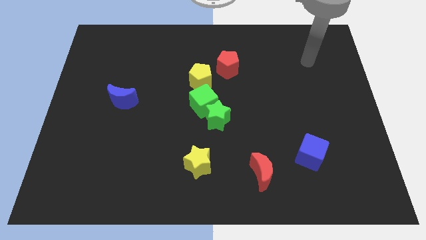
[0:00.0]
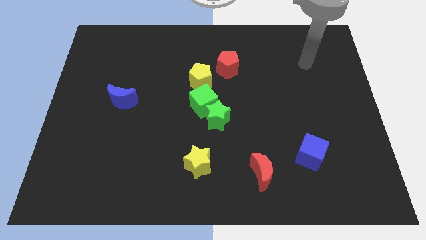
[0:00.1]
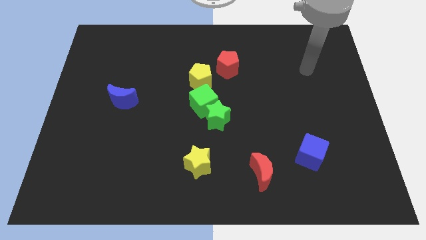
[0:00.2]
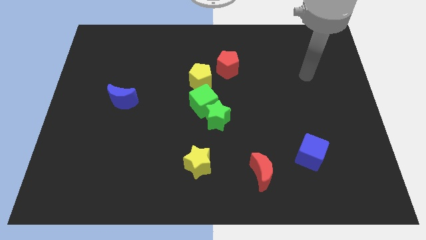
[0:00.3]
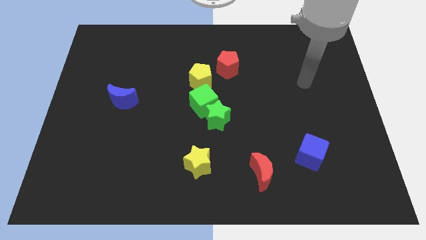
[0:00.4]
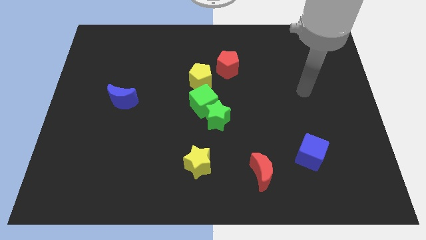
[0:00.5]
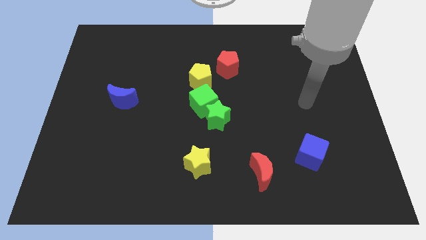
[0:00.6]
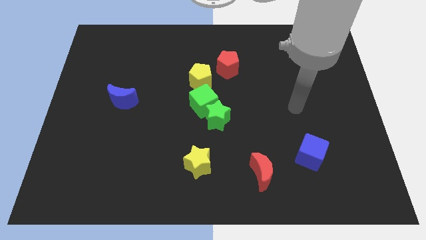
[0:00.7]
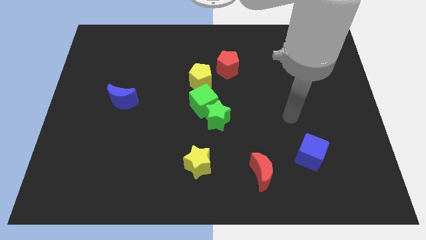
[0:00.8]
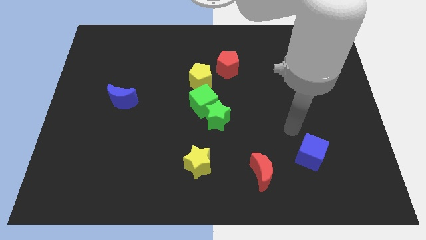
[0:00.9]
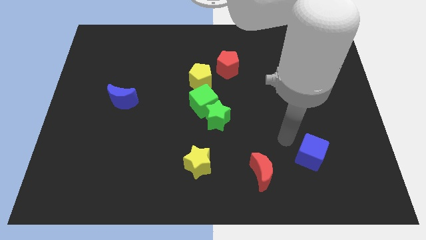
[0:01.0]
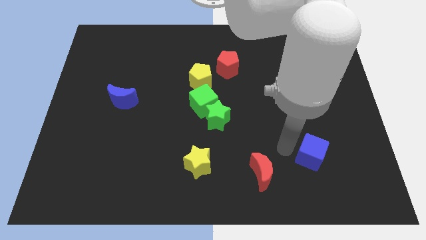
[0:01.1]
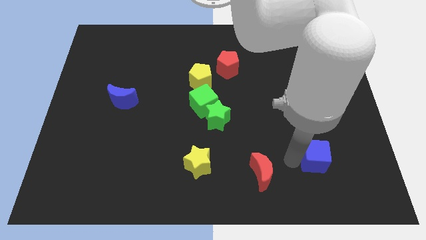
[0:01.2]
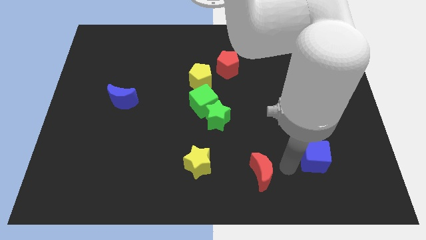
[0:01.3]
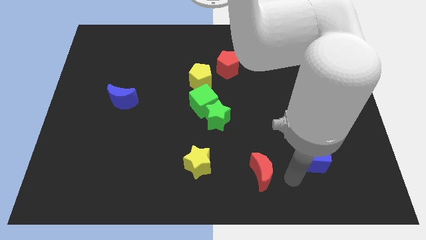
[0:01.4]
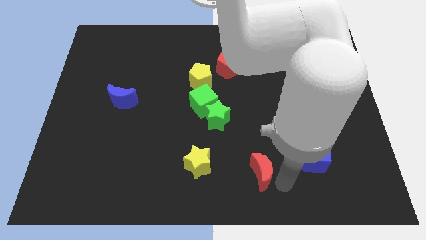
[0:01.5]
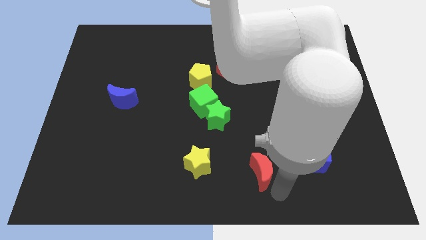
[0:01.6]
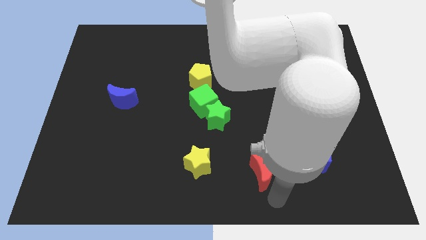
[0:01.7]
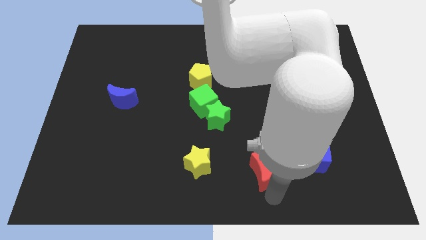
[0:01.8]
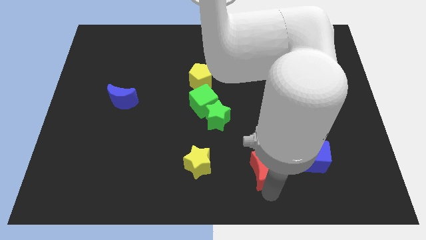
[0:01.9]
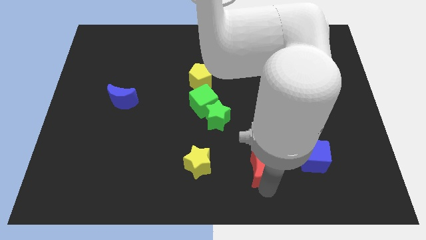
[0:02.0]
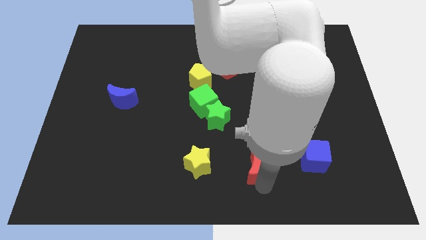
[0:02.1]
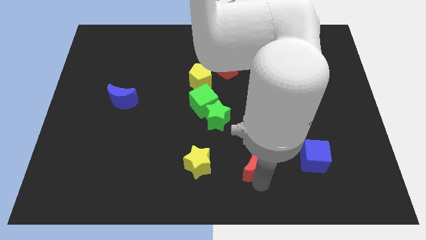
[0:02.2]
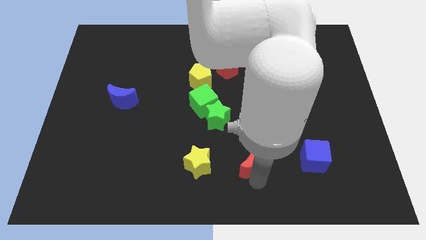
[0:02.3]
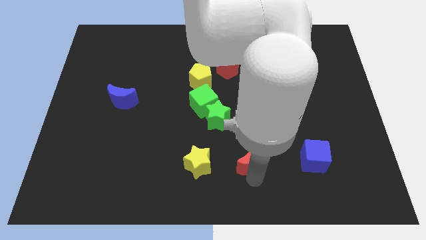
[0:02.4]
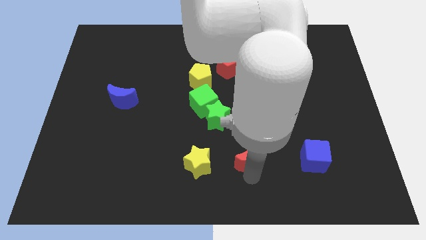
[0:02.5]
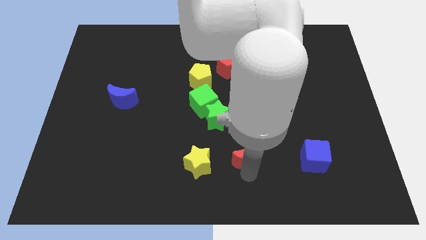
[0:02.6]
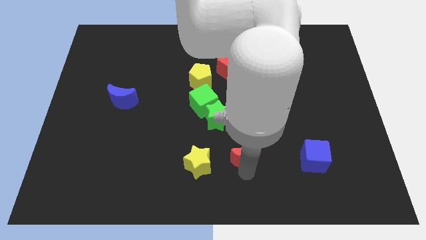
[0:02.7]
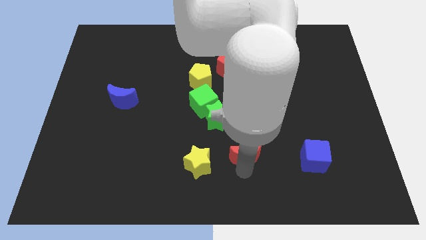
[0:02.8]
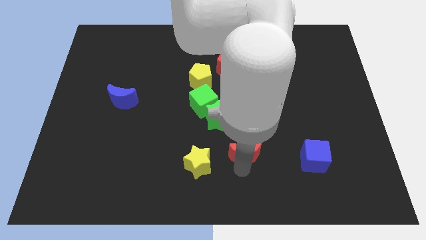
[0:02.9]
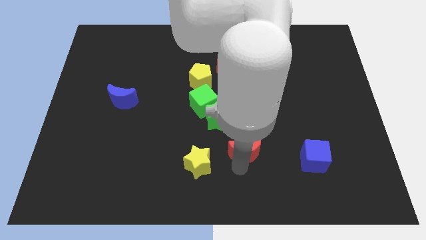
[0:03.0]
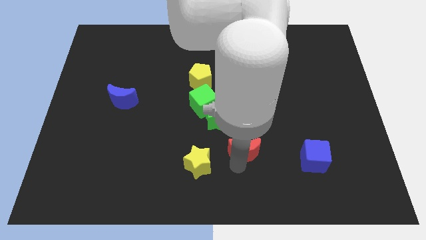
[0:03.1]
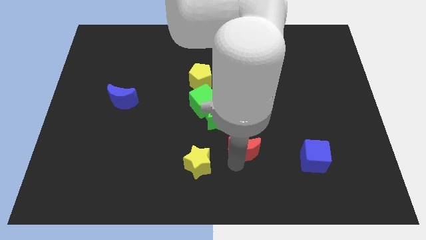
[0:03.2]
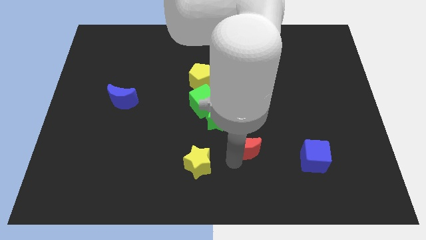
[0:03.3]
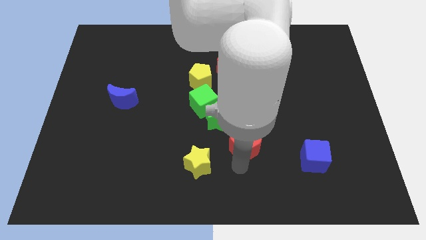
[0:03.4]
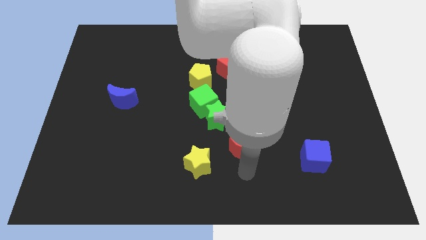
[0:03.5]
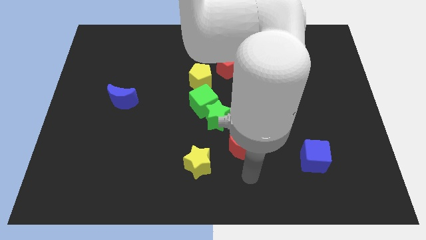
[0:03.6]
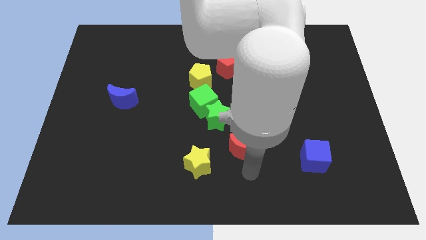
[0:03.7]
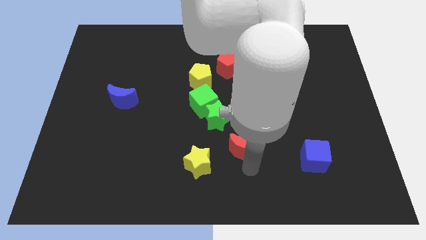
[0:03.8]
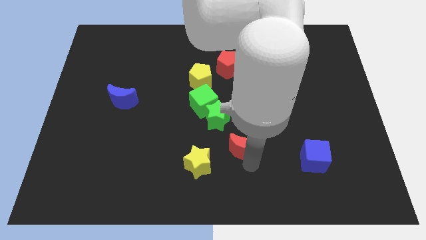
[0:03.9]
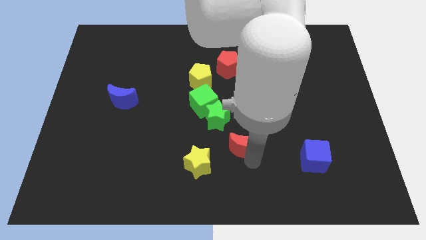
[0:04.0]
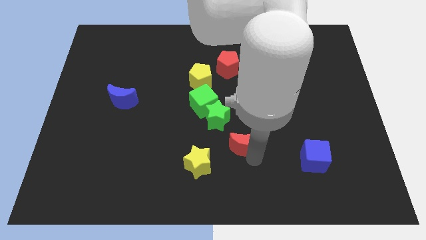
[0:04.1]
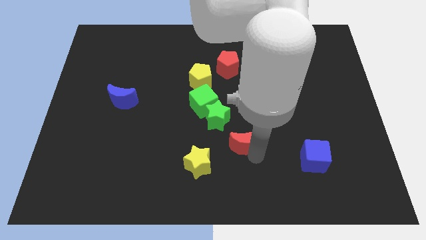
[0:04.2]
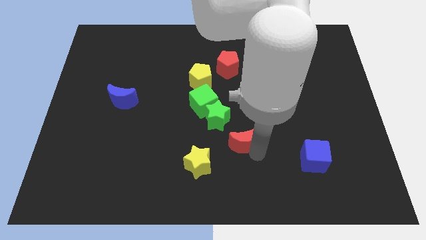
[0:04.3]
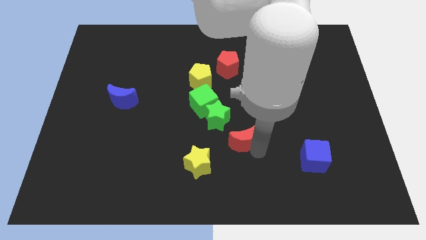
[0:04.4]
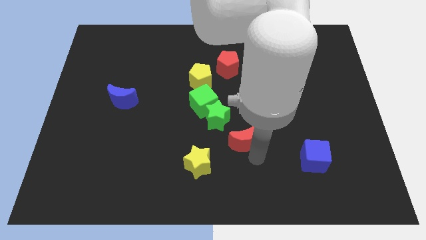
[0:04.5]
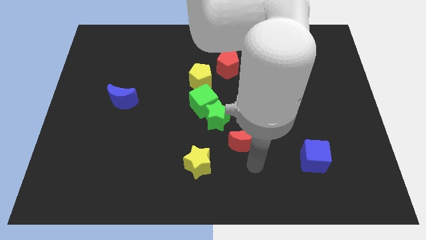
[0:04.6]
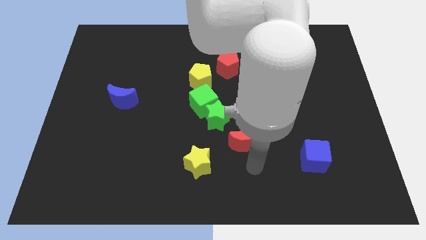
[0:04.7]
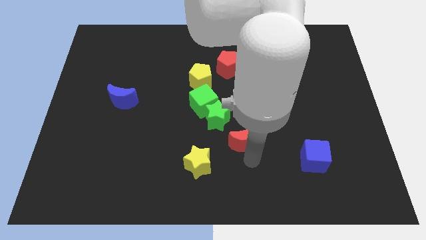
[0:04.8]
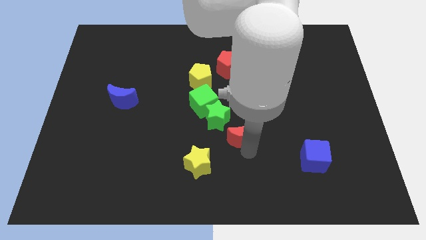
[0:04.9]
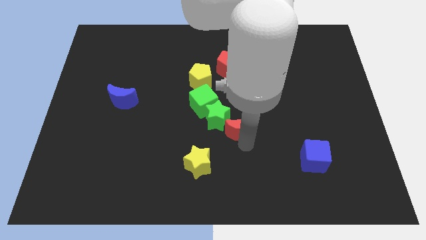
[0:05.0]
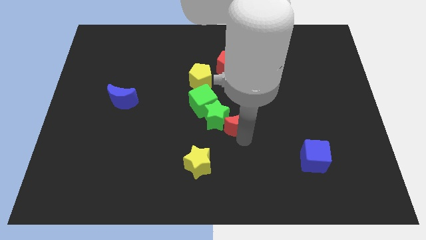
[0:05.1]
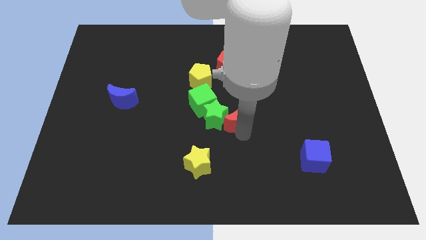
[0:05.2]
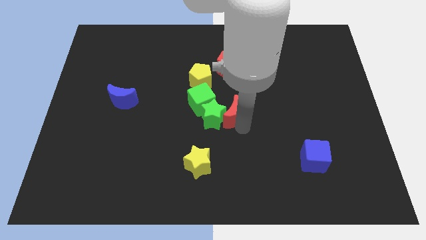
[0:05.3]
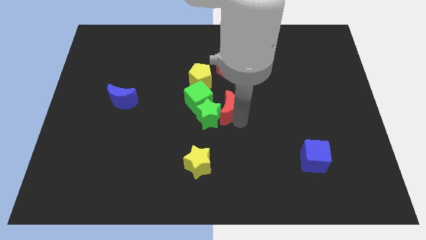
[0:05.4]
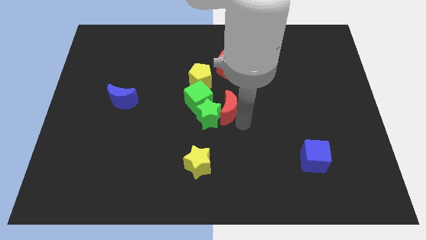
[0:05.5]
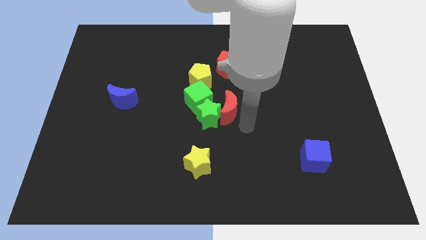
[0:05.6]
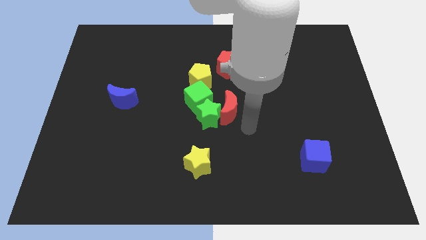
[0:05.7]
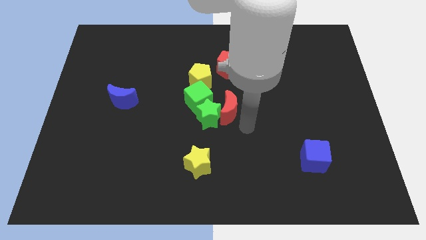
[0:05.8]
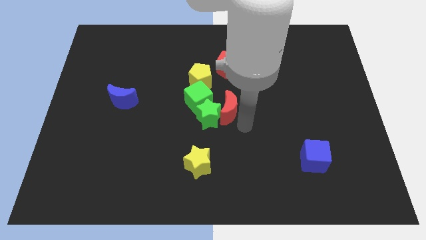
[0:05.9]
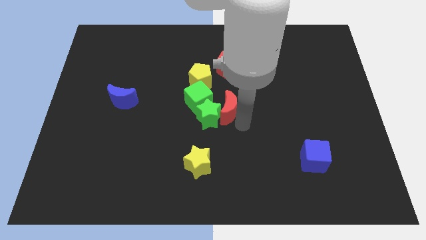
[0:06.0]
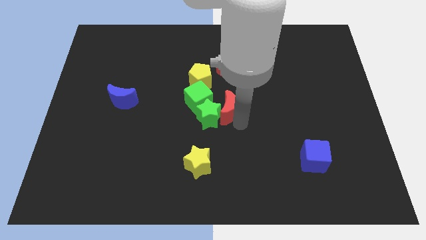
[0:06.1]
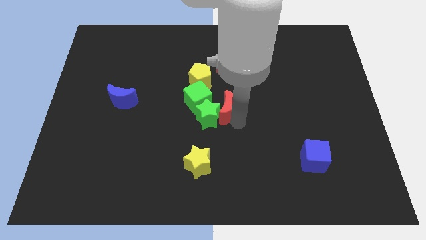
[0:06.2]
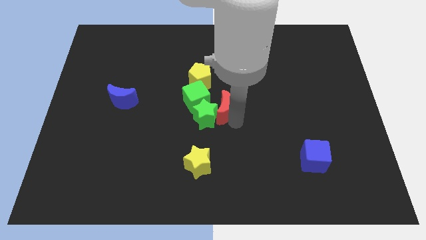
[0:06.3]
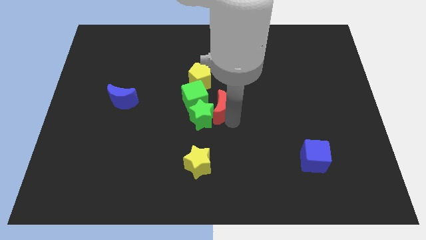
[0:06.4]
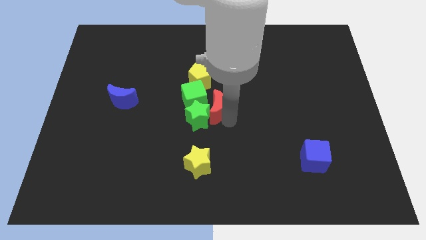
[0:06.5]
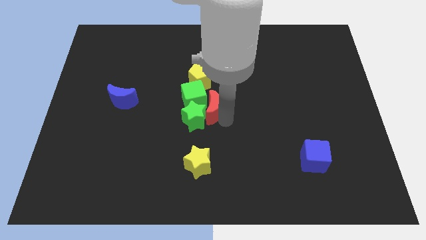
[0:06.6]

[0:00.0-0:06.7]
slide the red moon next to the green cube

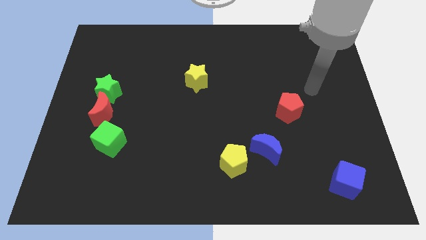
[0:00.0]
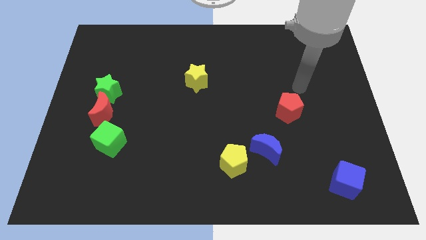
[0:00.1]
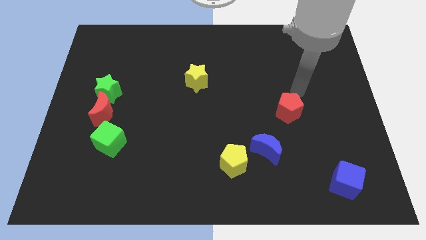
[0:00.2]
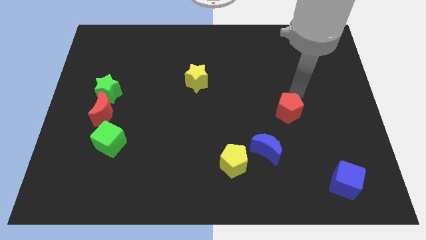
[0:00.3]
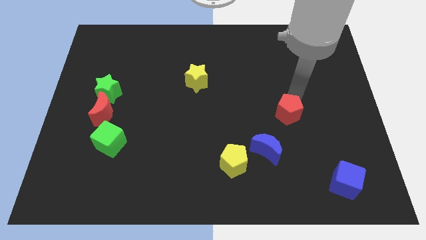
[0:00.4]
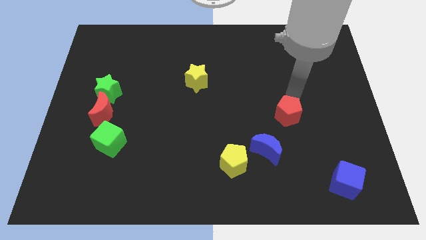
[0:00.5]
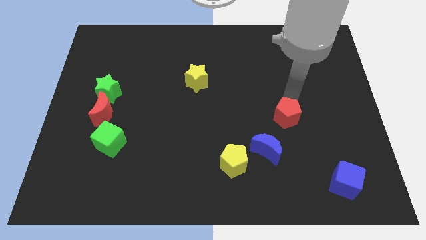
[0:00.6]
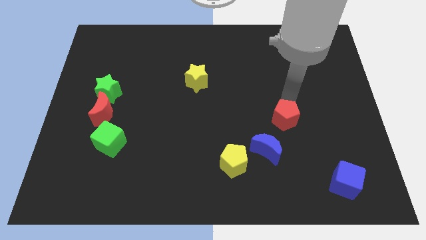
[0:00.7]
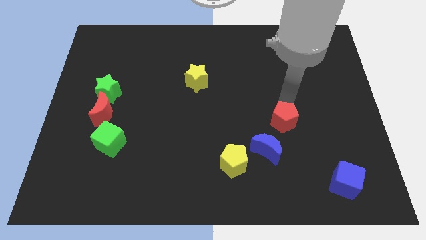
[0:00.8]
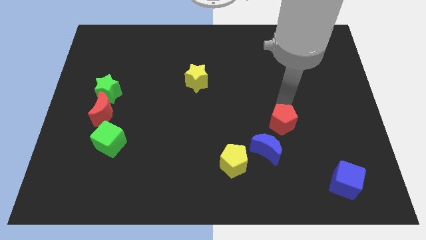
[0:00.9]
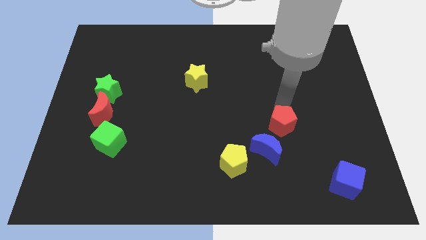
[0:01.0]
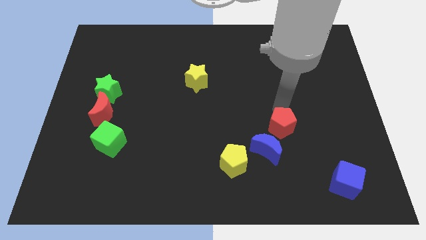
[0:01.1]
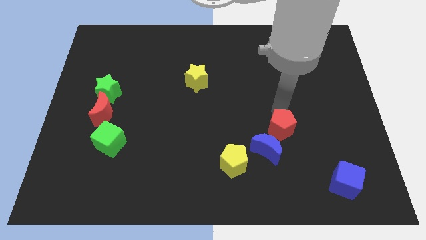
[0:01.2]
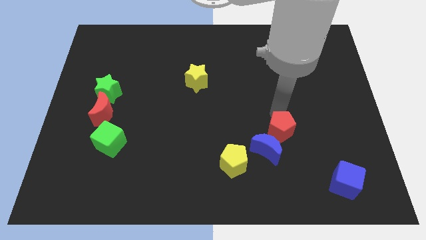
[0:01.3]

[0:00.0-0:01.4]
slide the red pentagon to the blue moon
